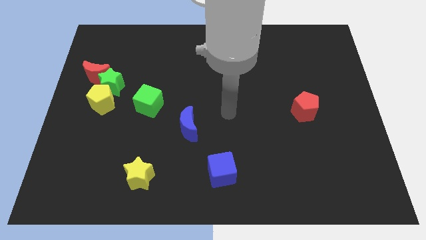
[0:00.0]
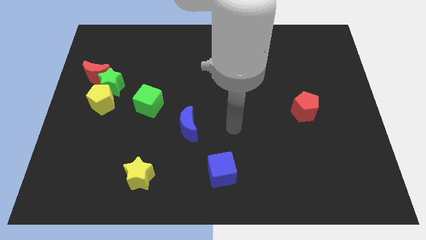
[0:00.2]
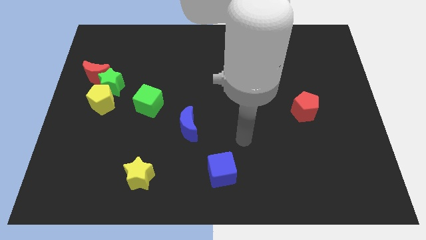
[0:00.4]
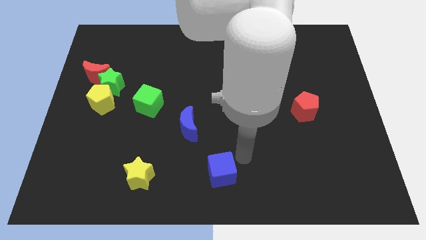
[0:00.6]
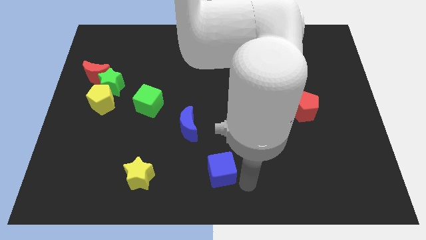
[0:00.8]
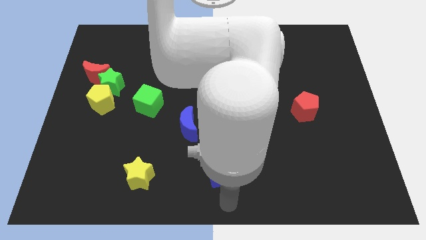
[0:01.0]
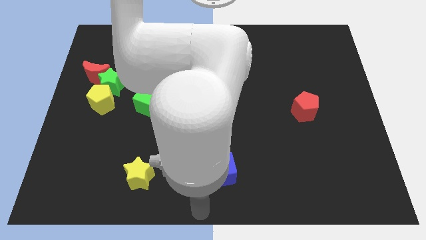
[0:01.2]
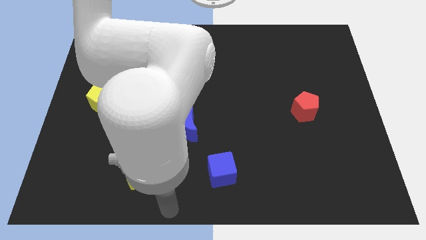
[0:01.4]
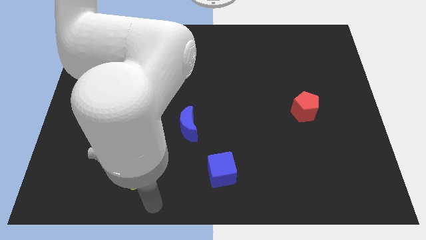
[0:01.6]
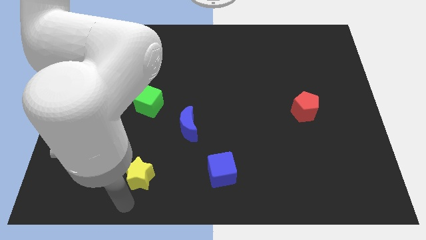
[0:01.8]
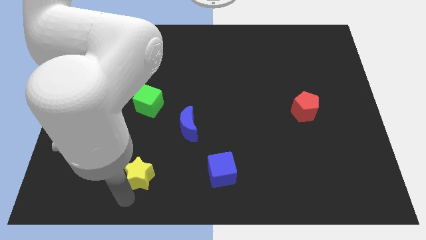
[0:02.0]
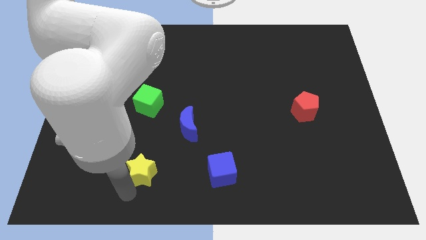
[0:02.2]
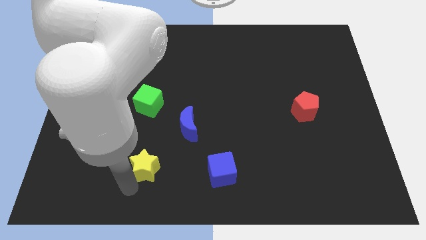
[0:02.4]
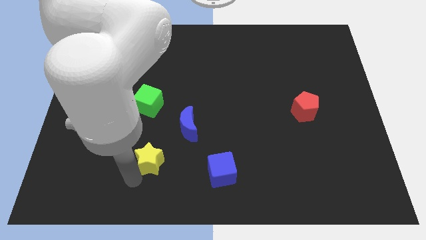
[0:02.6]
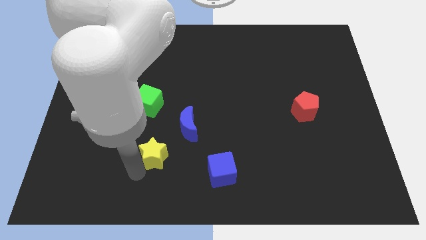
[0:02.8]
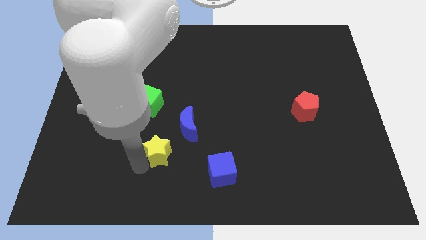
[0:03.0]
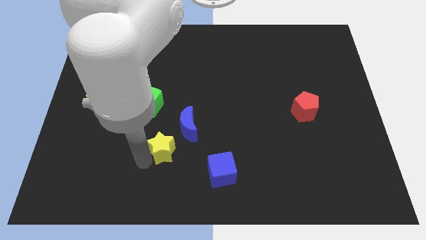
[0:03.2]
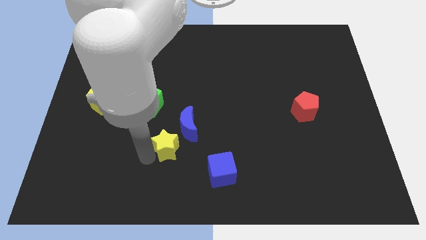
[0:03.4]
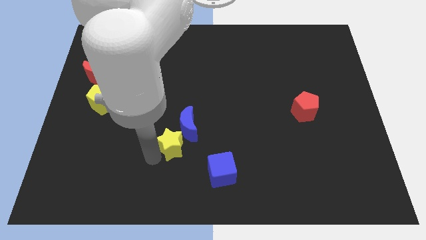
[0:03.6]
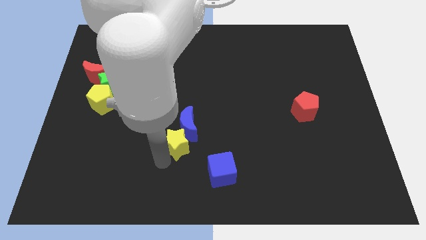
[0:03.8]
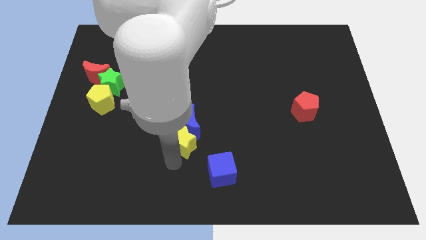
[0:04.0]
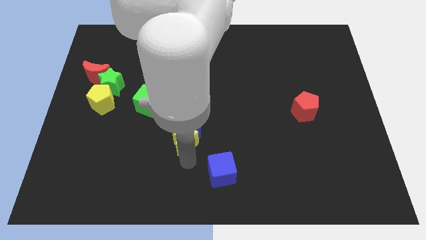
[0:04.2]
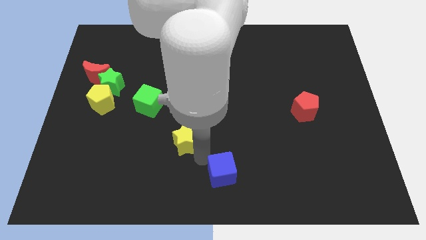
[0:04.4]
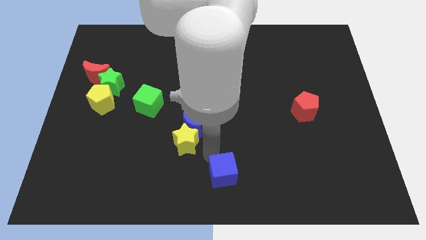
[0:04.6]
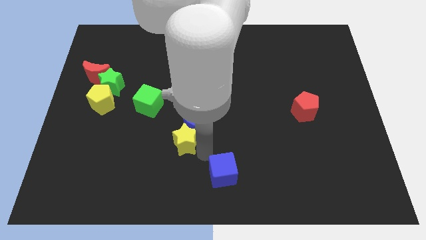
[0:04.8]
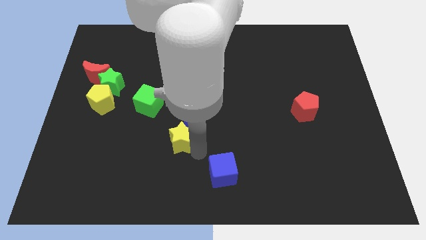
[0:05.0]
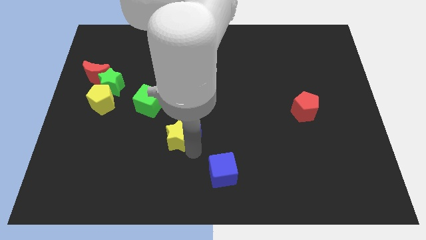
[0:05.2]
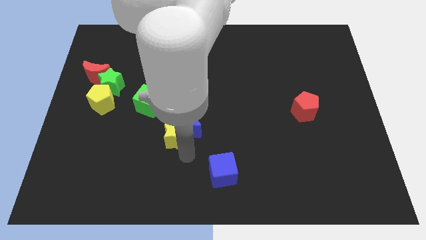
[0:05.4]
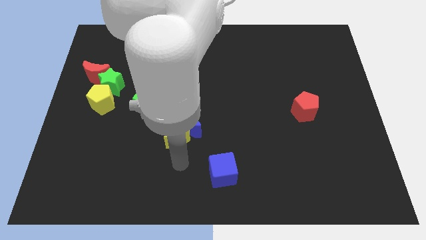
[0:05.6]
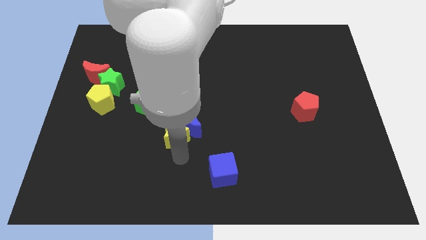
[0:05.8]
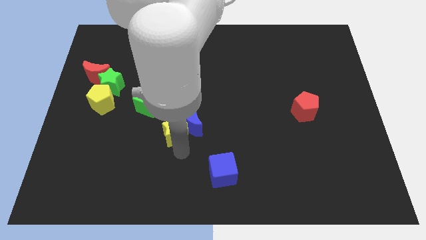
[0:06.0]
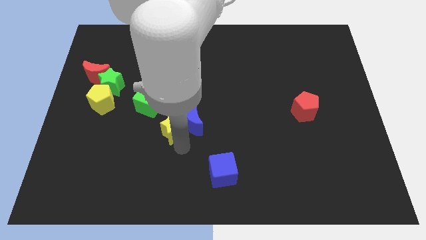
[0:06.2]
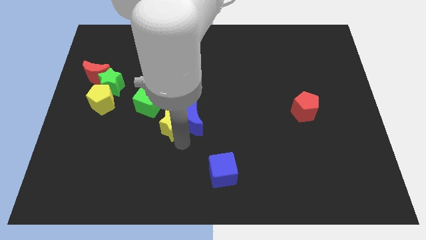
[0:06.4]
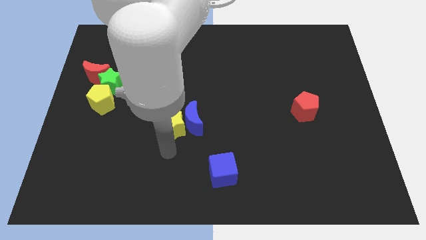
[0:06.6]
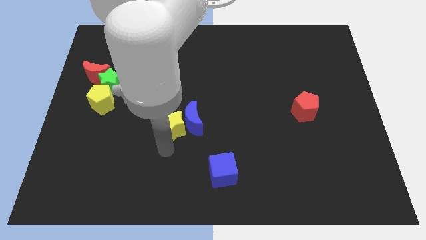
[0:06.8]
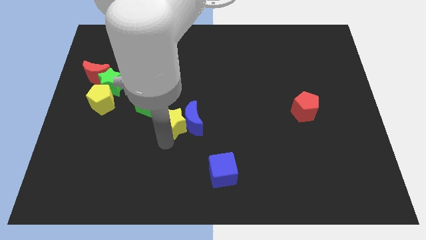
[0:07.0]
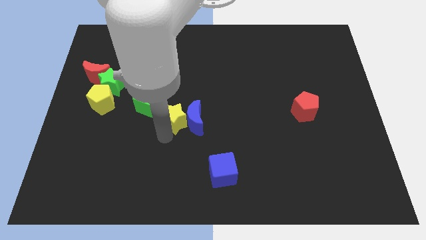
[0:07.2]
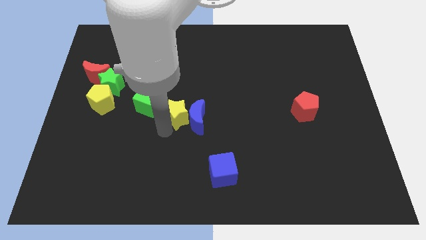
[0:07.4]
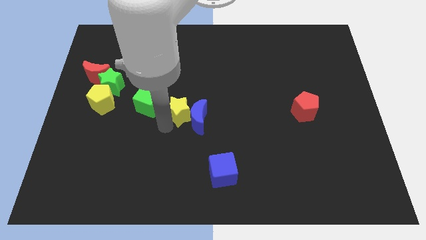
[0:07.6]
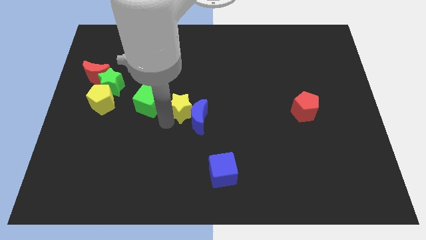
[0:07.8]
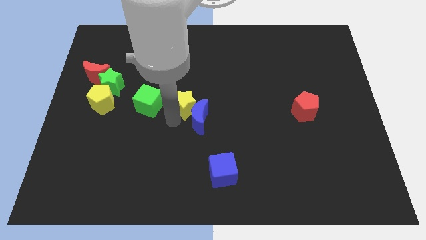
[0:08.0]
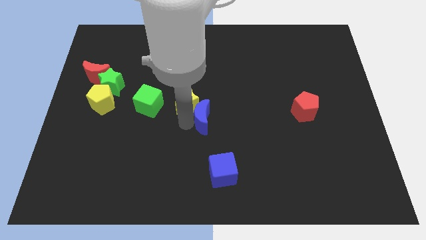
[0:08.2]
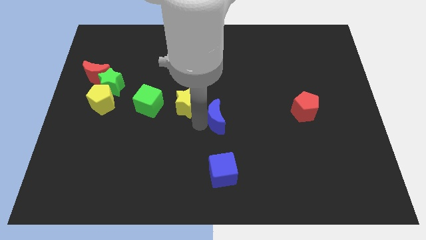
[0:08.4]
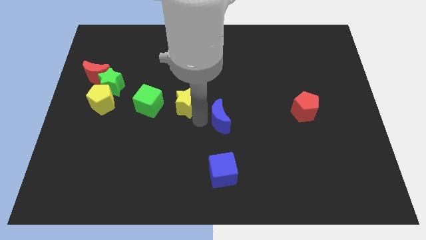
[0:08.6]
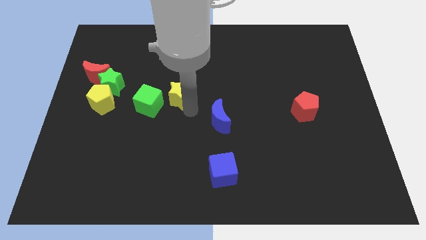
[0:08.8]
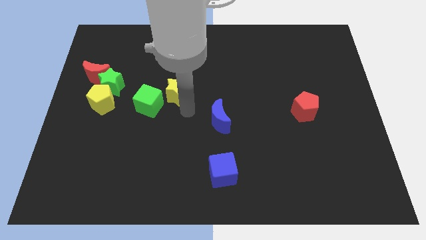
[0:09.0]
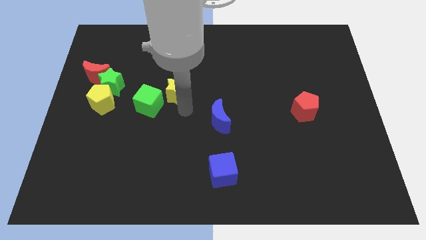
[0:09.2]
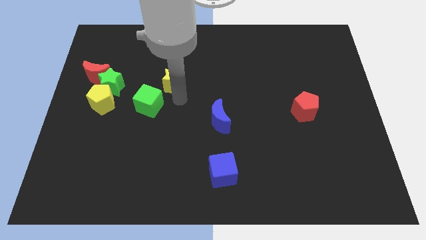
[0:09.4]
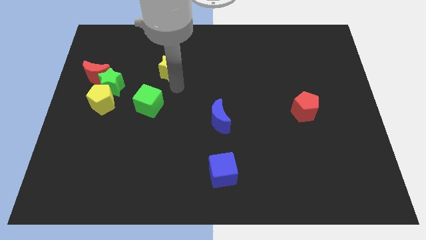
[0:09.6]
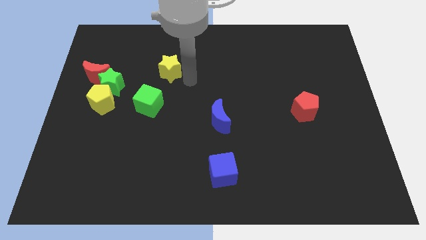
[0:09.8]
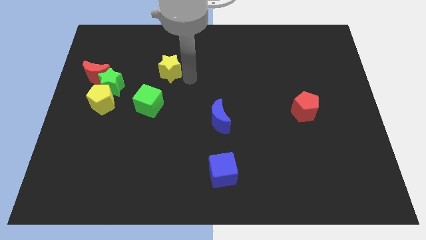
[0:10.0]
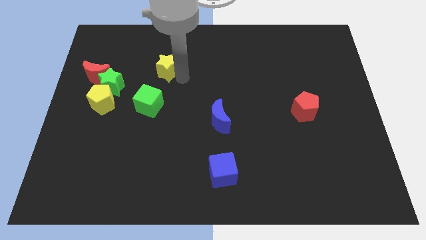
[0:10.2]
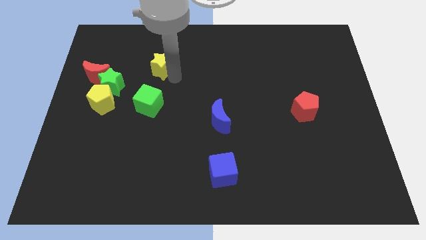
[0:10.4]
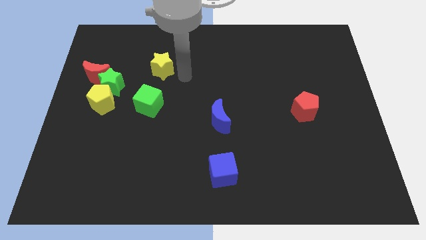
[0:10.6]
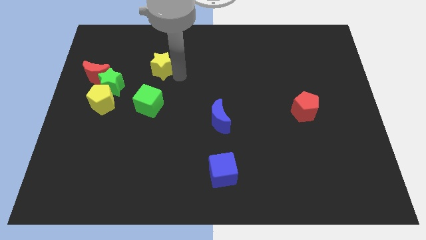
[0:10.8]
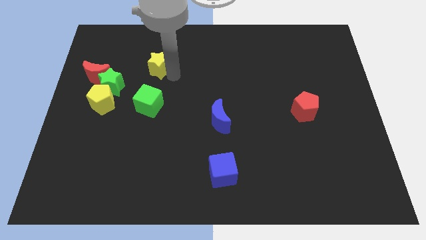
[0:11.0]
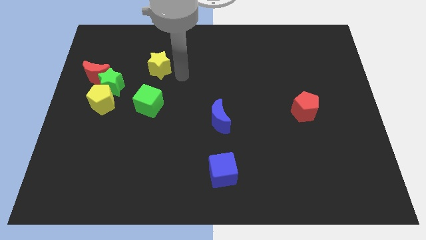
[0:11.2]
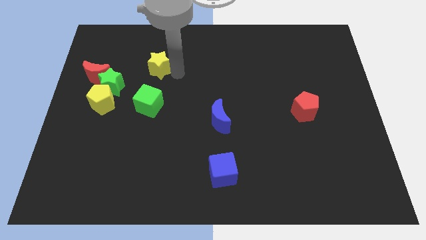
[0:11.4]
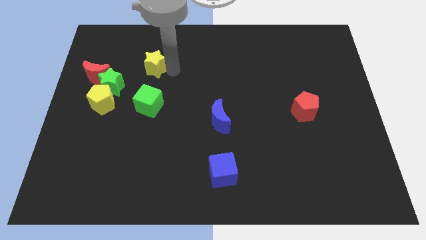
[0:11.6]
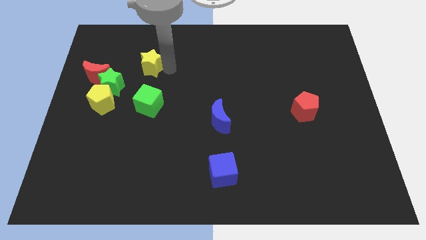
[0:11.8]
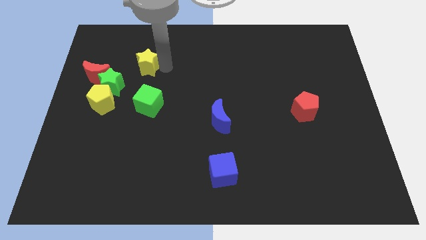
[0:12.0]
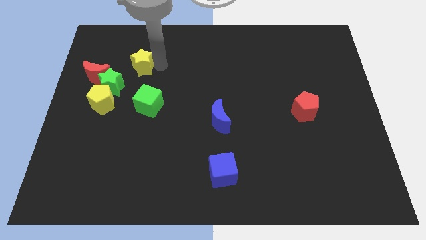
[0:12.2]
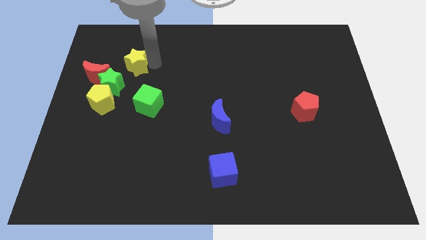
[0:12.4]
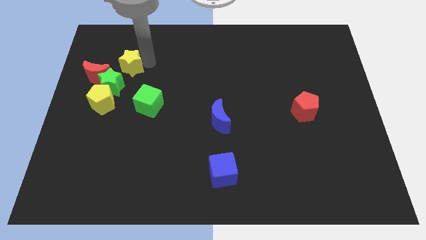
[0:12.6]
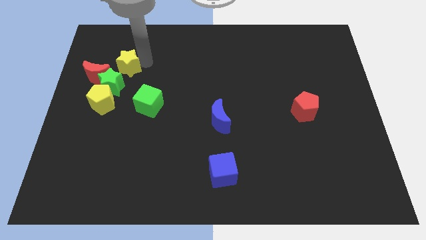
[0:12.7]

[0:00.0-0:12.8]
push the yellow star to the top side of the yellow pentagon
